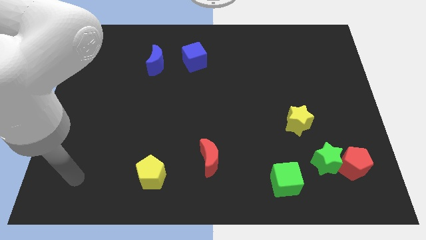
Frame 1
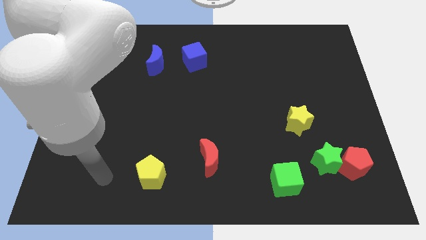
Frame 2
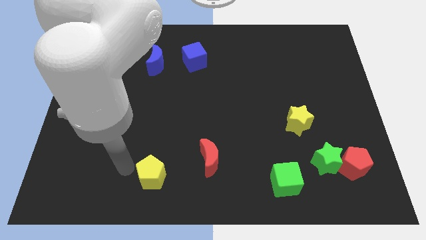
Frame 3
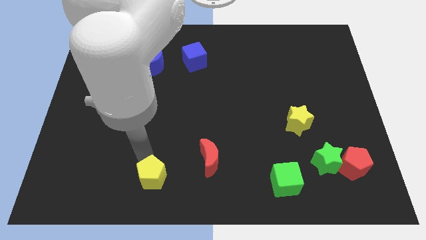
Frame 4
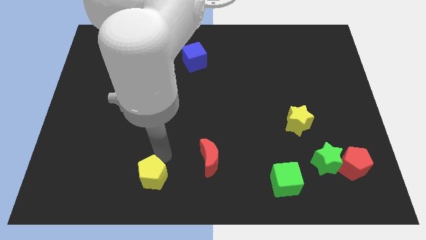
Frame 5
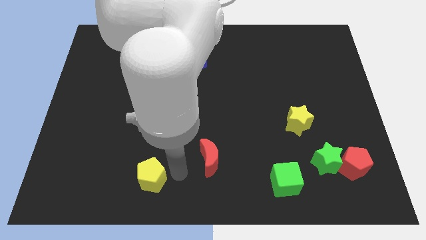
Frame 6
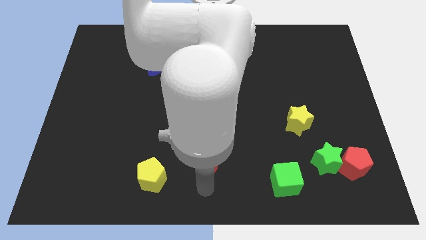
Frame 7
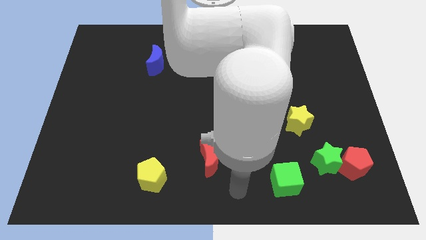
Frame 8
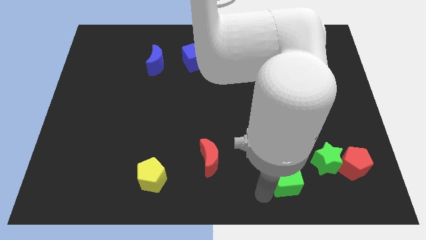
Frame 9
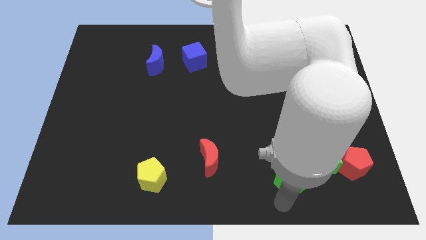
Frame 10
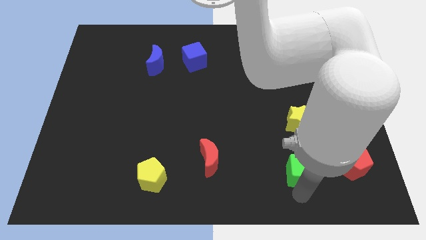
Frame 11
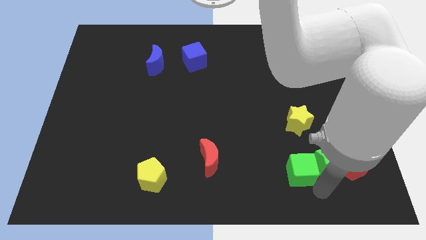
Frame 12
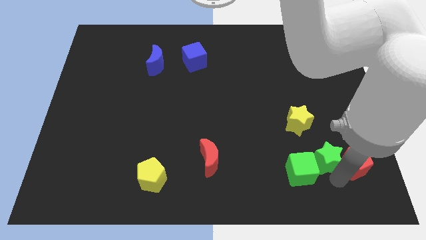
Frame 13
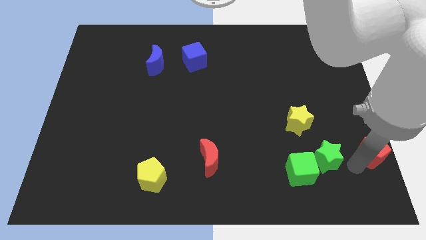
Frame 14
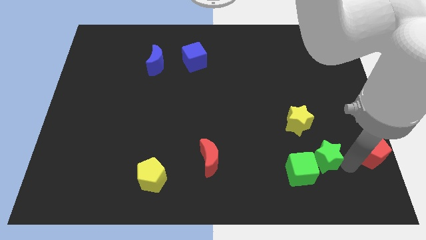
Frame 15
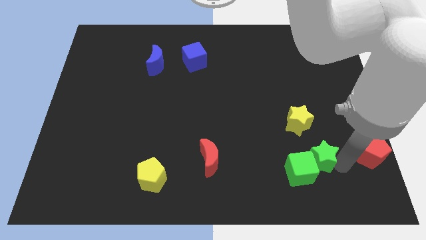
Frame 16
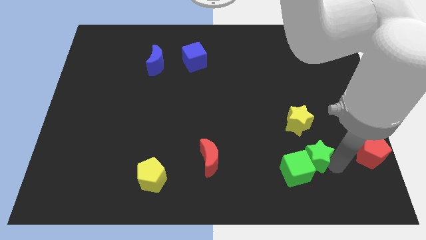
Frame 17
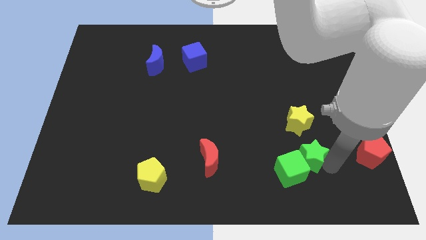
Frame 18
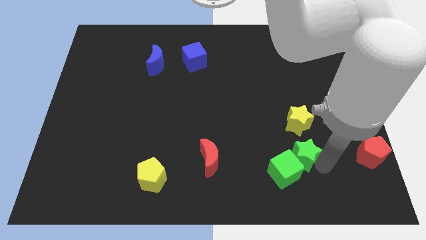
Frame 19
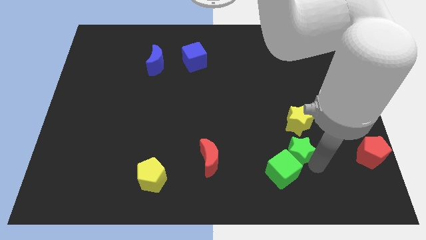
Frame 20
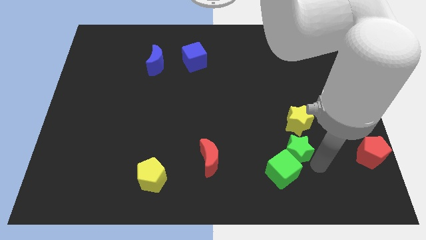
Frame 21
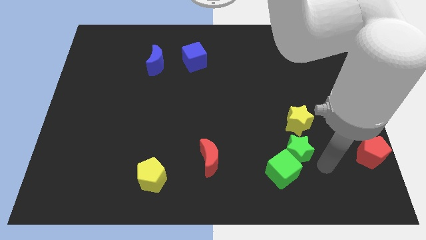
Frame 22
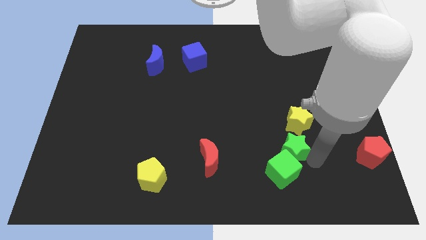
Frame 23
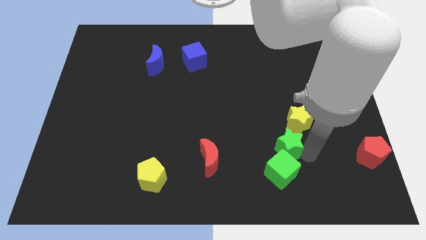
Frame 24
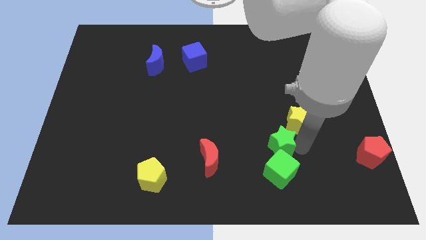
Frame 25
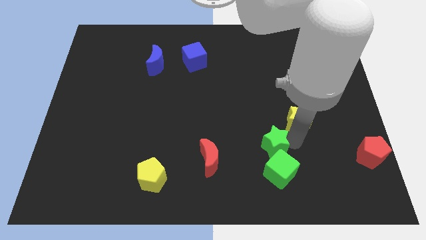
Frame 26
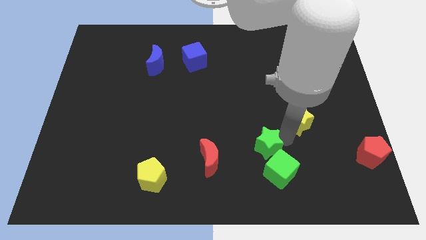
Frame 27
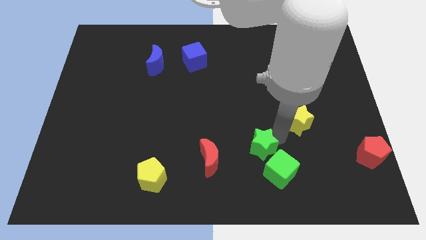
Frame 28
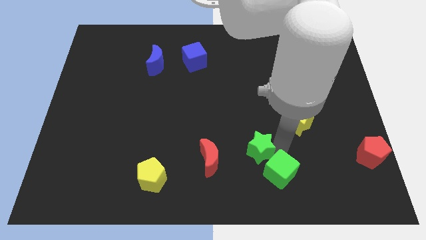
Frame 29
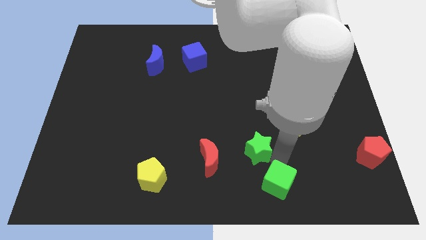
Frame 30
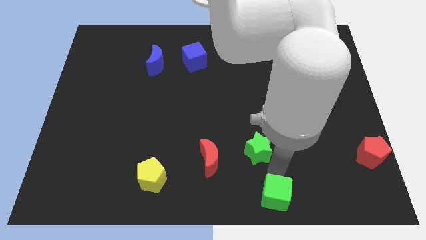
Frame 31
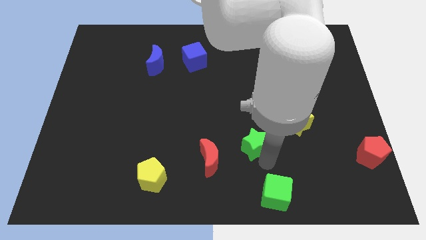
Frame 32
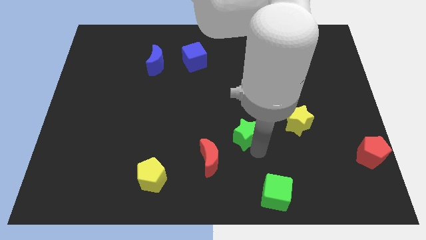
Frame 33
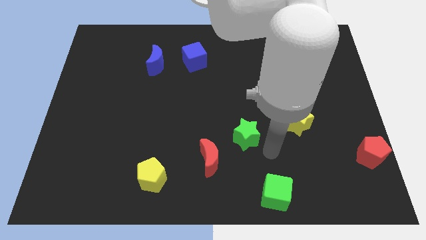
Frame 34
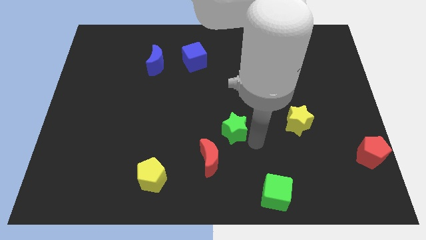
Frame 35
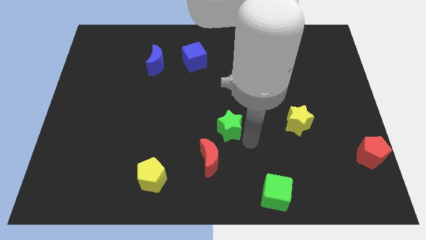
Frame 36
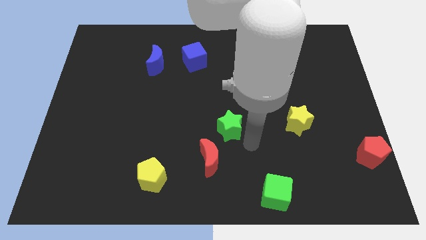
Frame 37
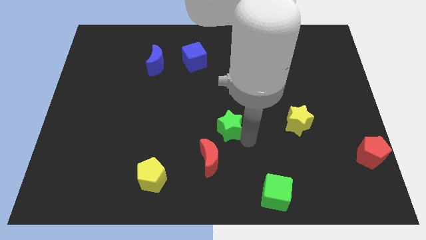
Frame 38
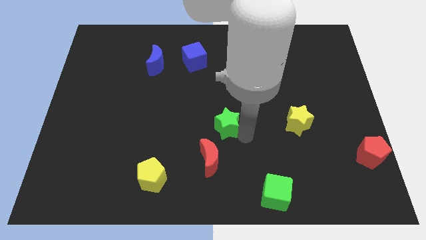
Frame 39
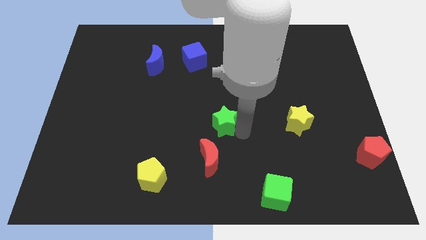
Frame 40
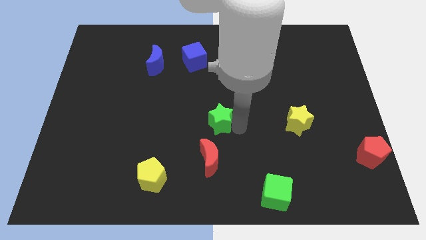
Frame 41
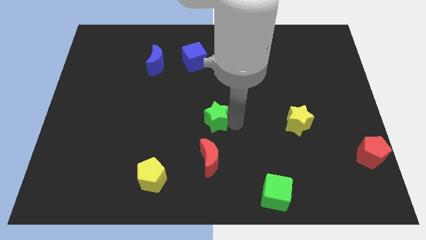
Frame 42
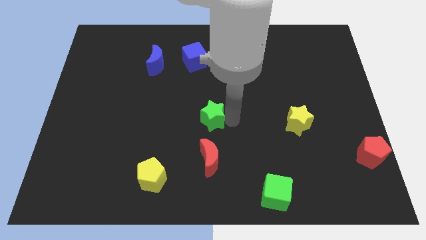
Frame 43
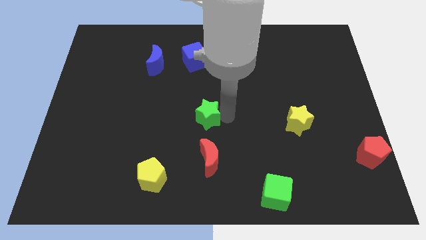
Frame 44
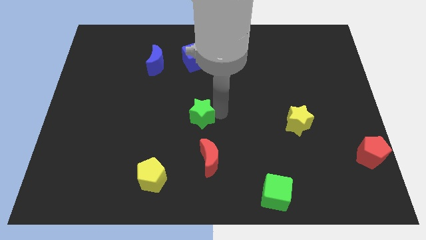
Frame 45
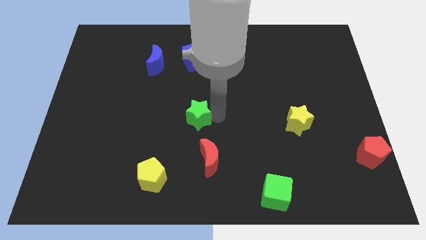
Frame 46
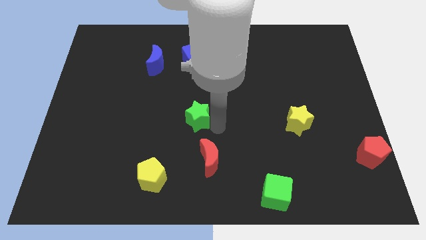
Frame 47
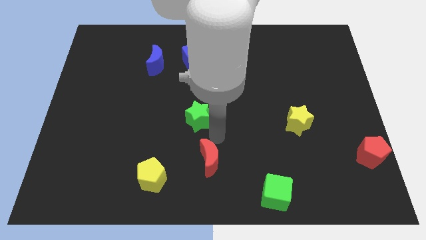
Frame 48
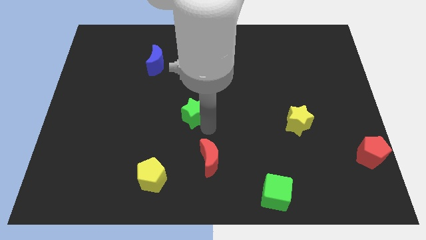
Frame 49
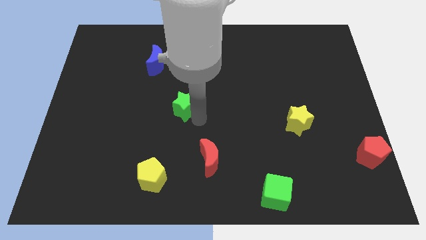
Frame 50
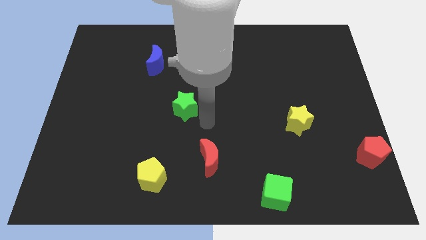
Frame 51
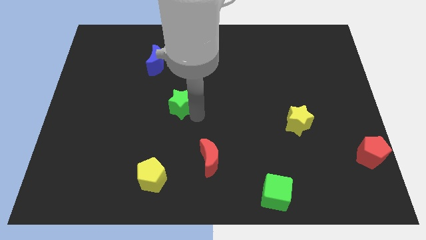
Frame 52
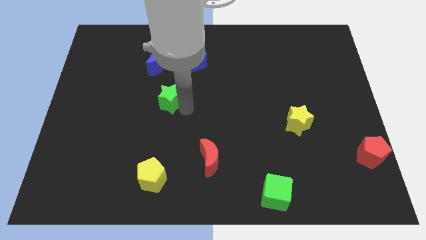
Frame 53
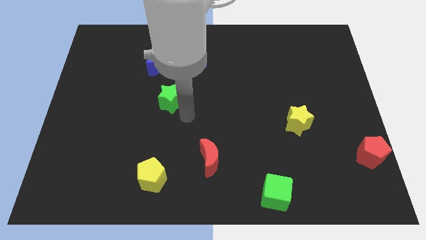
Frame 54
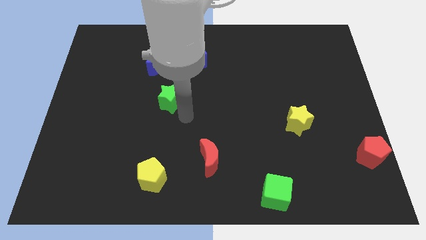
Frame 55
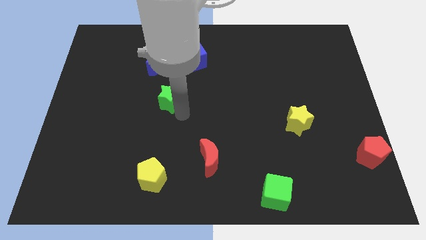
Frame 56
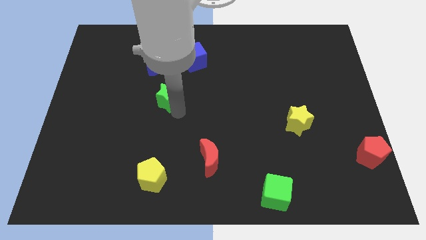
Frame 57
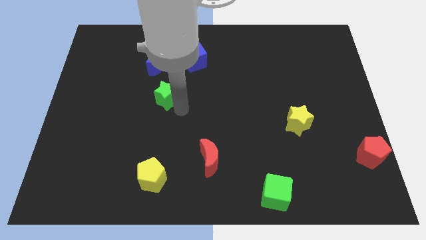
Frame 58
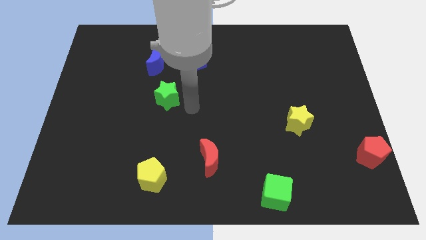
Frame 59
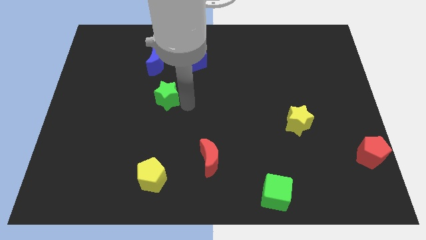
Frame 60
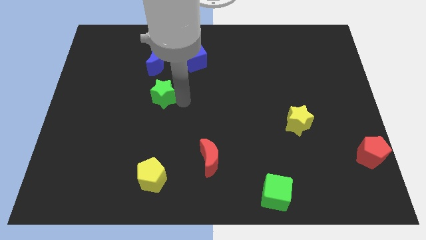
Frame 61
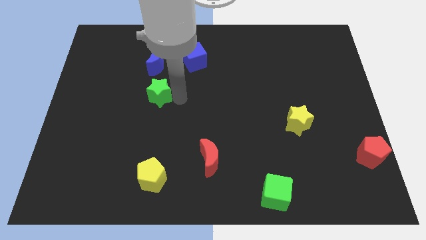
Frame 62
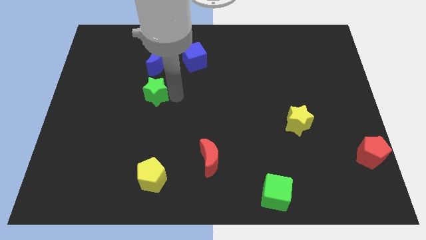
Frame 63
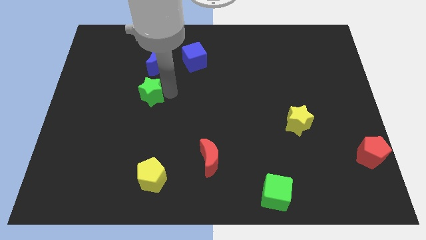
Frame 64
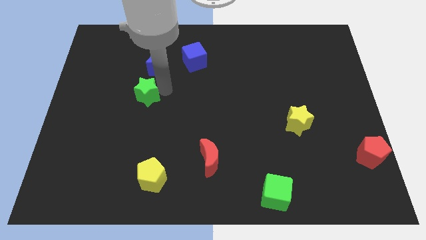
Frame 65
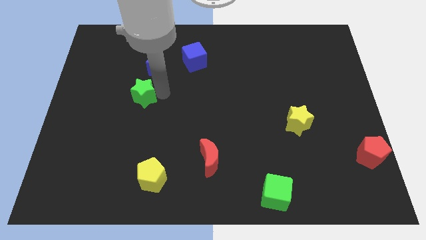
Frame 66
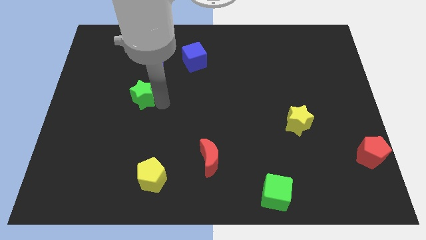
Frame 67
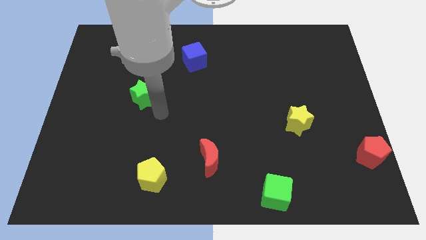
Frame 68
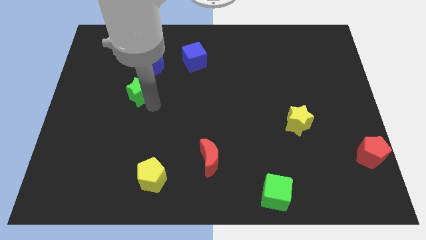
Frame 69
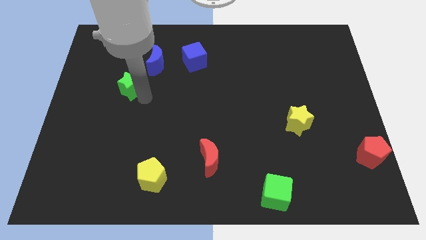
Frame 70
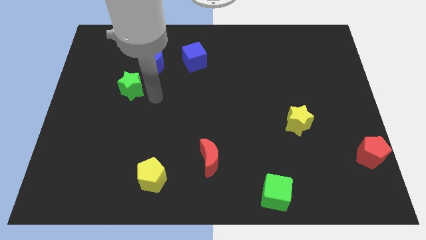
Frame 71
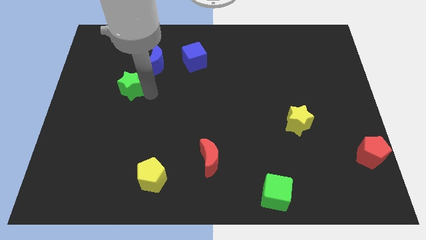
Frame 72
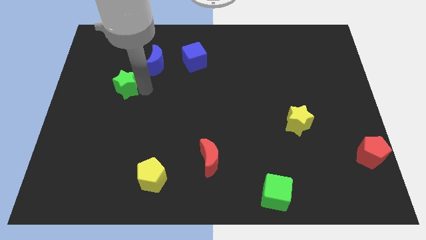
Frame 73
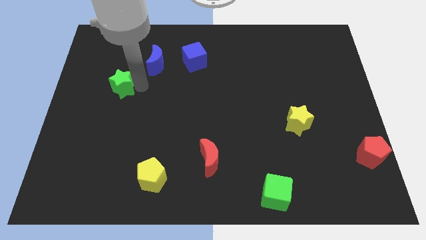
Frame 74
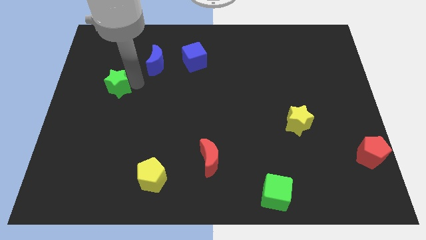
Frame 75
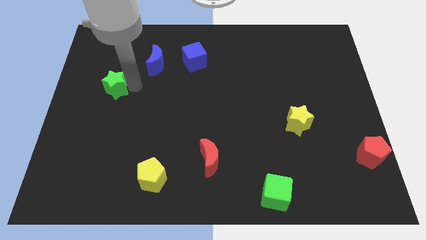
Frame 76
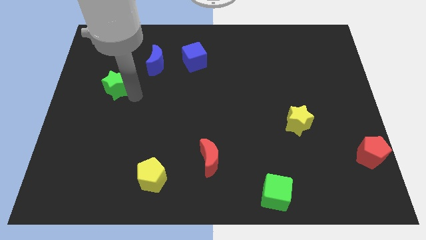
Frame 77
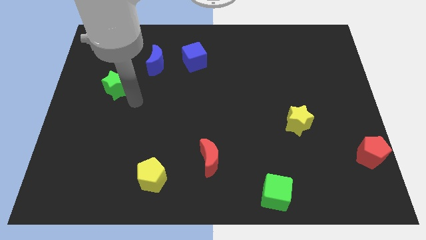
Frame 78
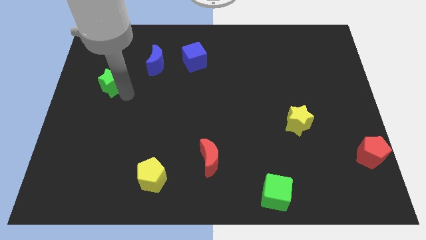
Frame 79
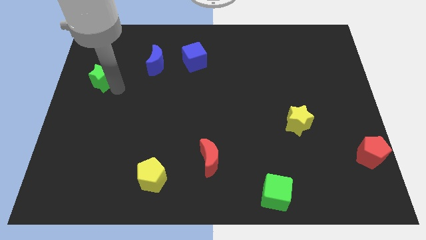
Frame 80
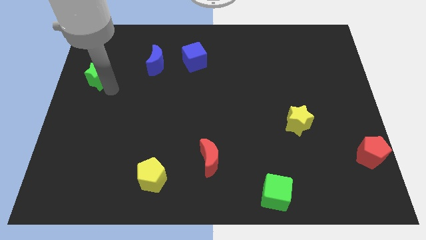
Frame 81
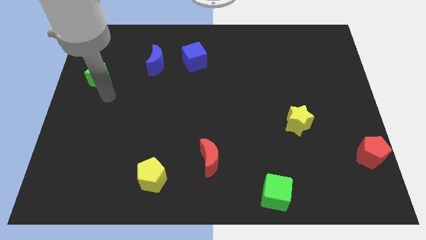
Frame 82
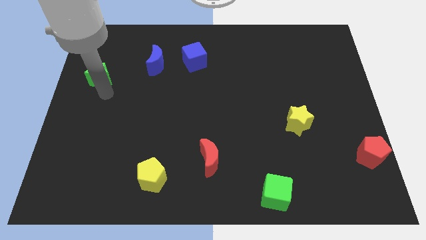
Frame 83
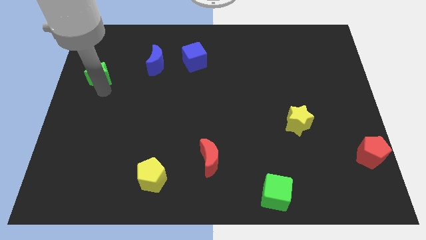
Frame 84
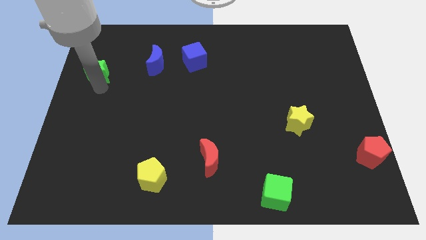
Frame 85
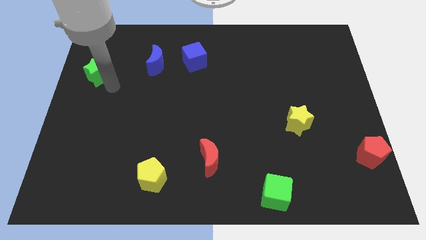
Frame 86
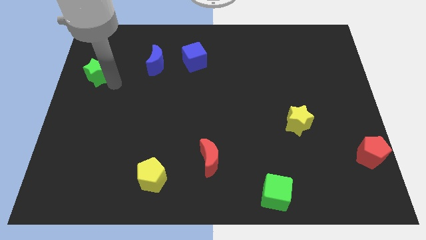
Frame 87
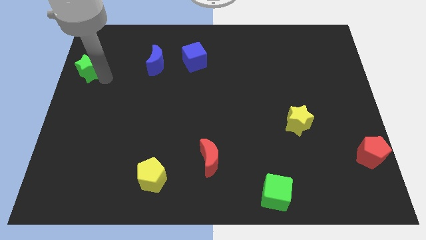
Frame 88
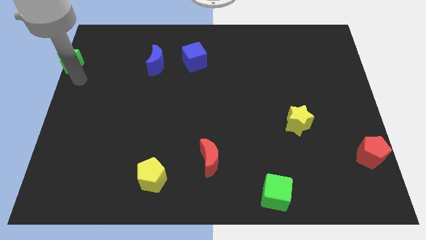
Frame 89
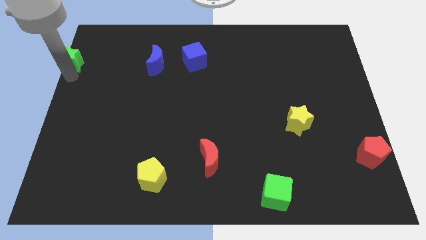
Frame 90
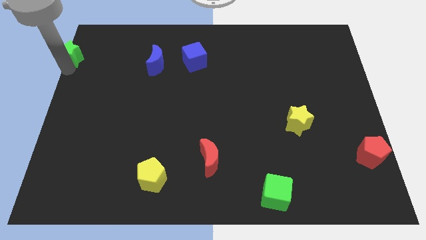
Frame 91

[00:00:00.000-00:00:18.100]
put the green star to the upper left corner
